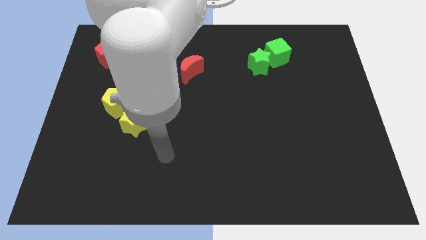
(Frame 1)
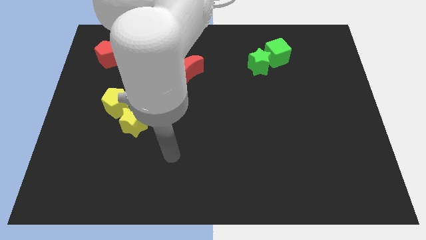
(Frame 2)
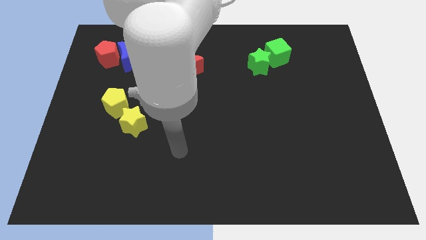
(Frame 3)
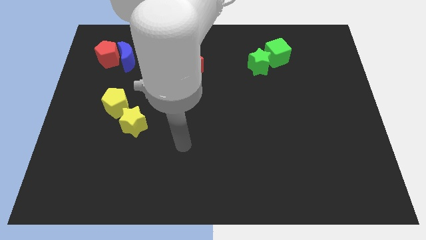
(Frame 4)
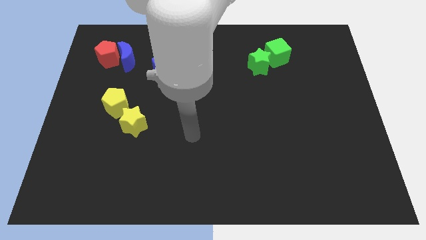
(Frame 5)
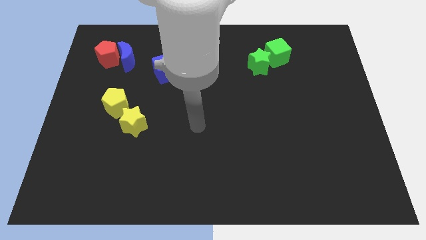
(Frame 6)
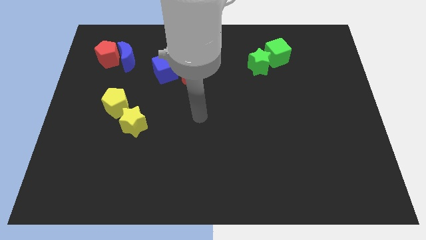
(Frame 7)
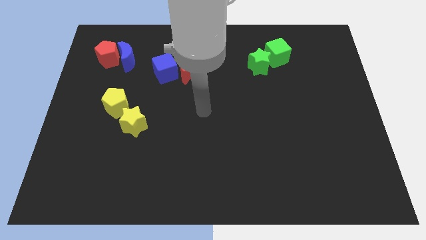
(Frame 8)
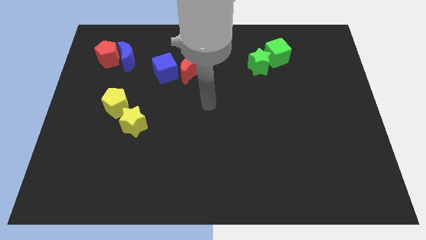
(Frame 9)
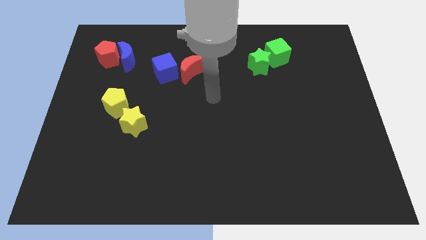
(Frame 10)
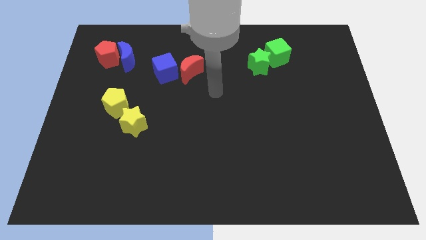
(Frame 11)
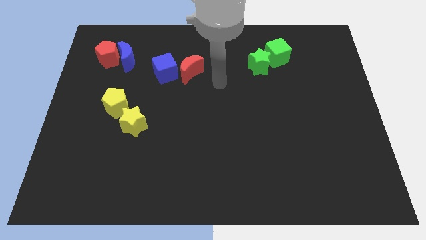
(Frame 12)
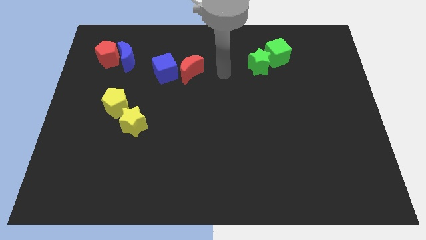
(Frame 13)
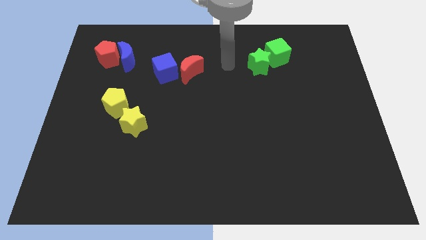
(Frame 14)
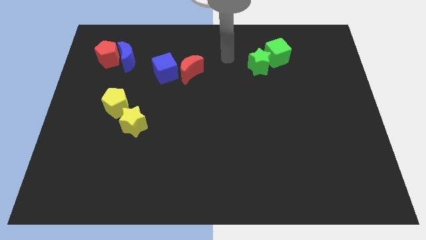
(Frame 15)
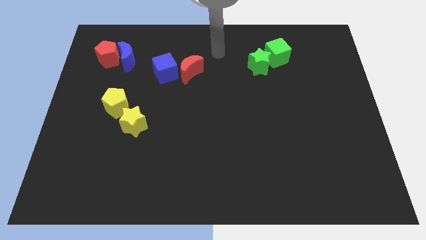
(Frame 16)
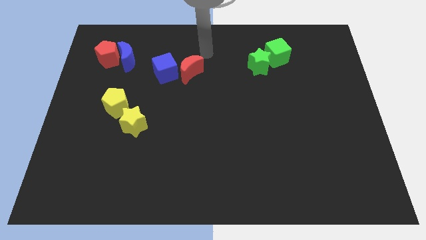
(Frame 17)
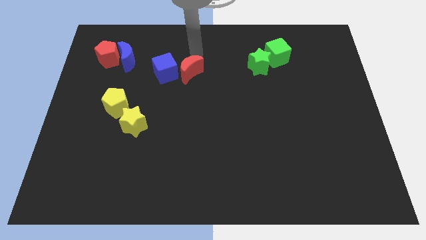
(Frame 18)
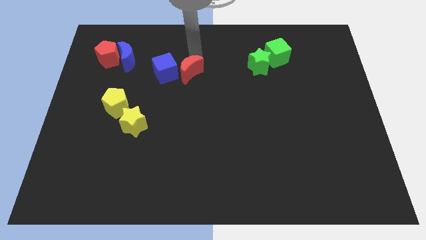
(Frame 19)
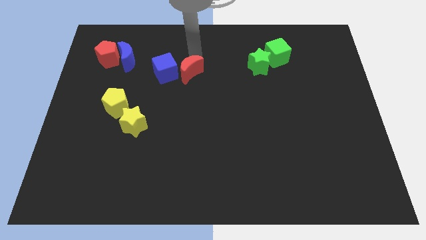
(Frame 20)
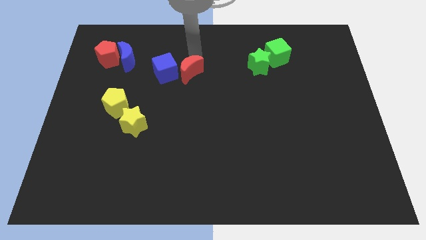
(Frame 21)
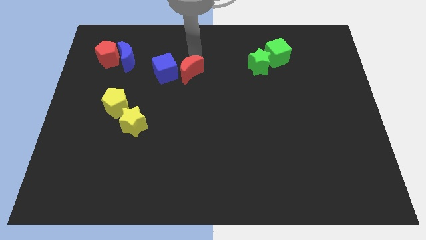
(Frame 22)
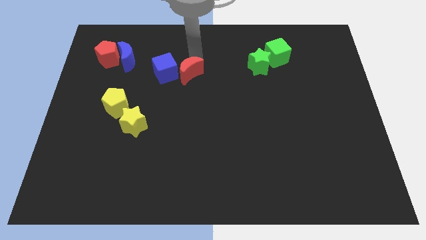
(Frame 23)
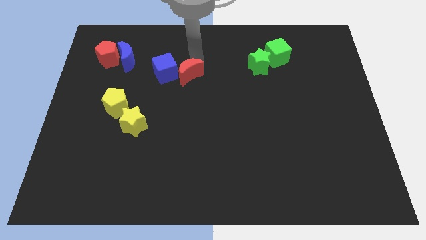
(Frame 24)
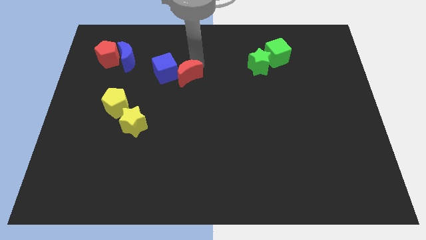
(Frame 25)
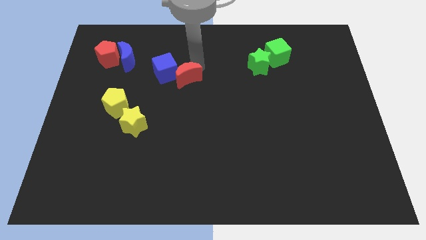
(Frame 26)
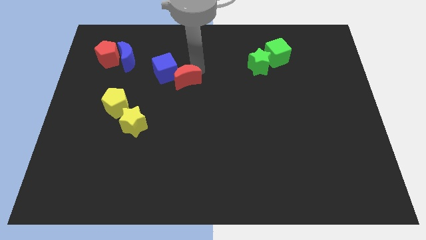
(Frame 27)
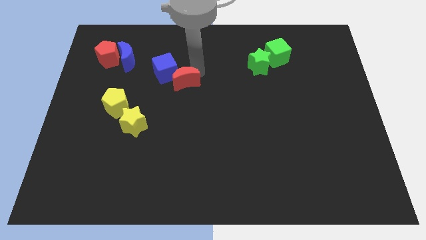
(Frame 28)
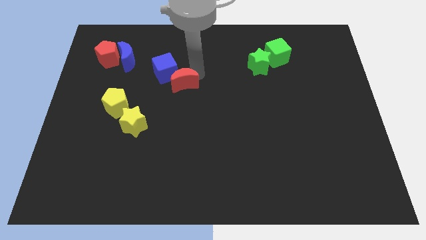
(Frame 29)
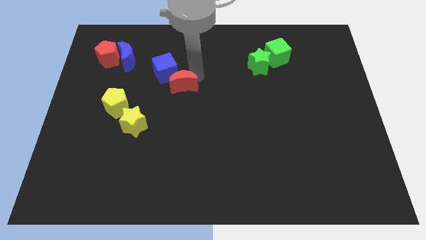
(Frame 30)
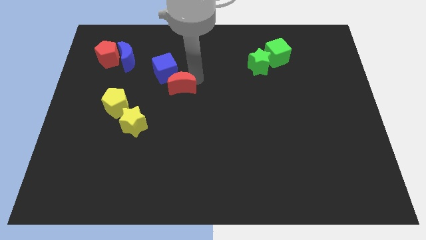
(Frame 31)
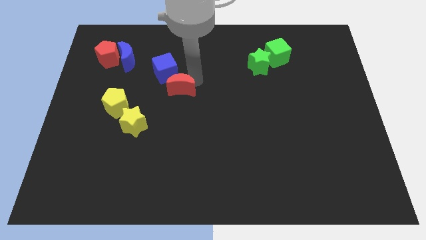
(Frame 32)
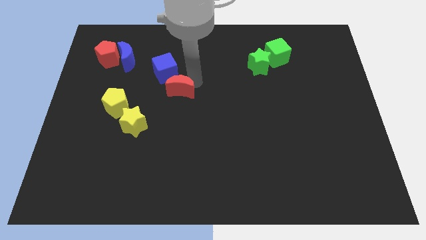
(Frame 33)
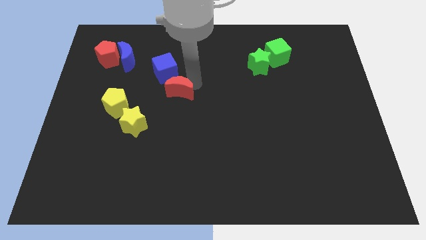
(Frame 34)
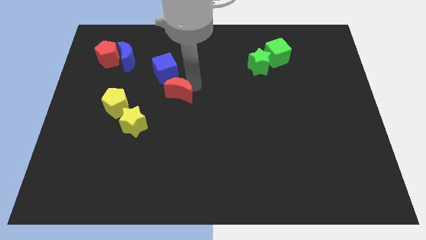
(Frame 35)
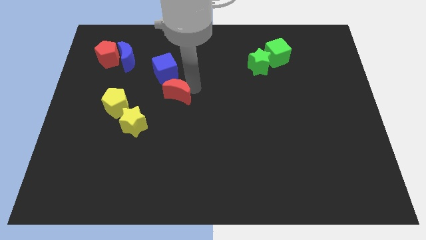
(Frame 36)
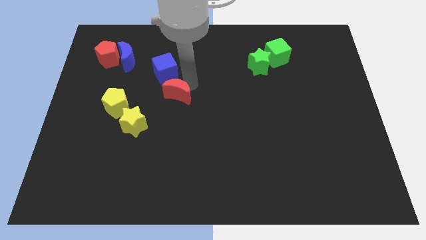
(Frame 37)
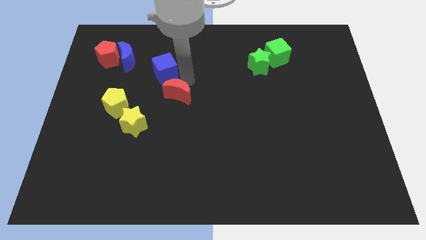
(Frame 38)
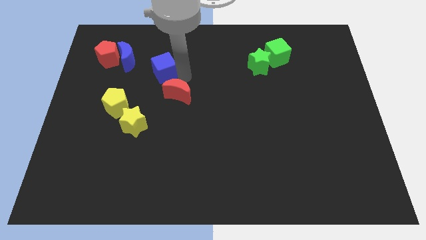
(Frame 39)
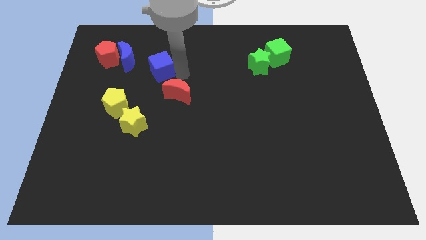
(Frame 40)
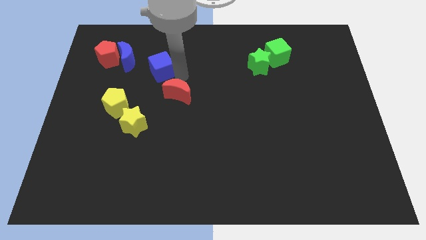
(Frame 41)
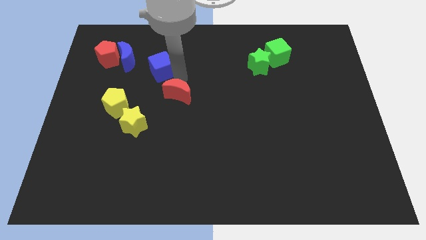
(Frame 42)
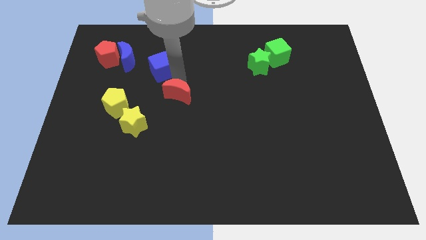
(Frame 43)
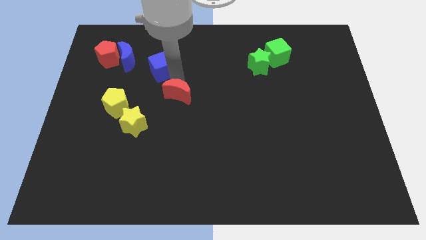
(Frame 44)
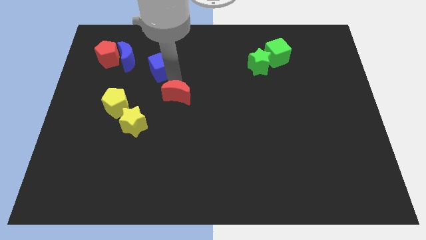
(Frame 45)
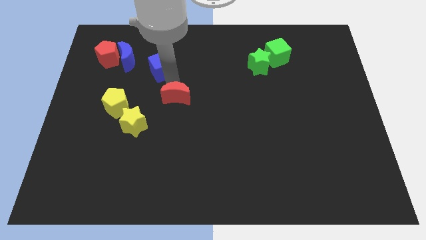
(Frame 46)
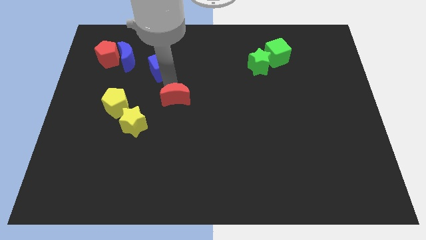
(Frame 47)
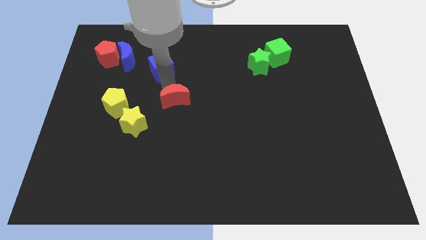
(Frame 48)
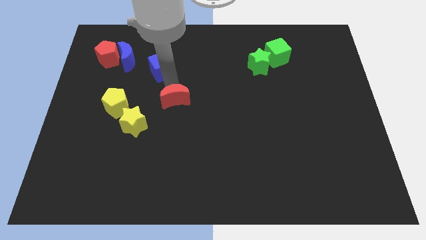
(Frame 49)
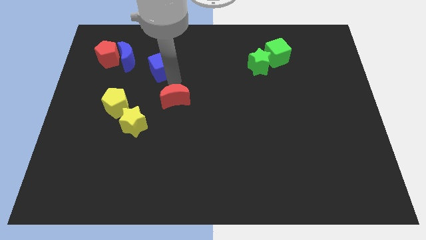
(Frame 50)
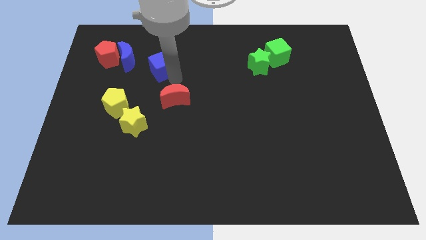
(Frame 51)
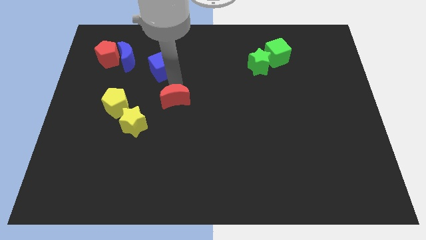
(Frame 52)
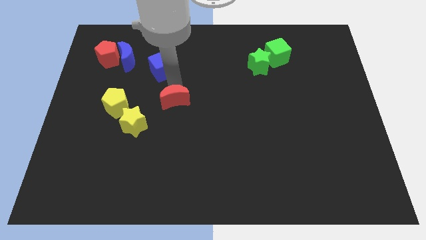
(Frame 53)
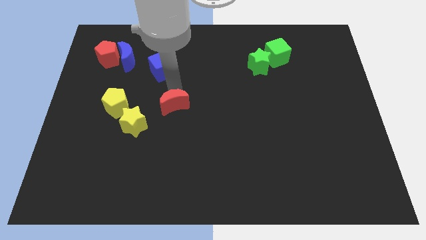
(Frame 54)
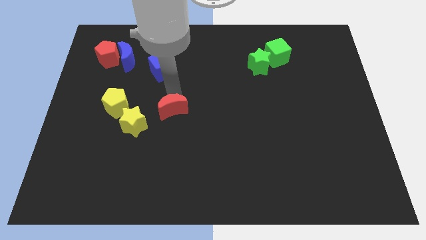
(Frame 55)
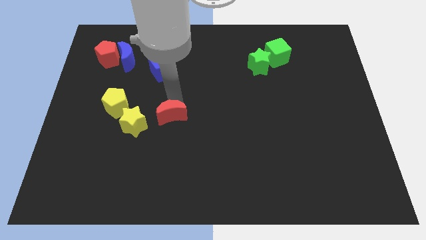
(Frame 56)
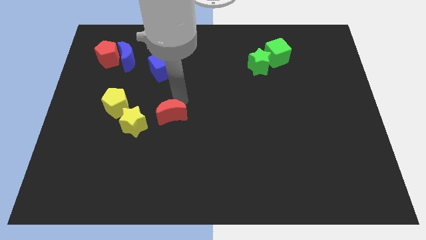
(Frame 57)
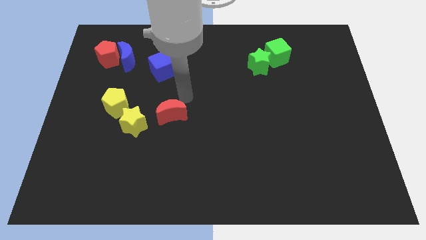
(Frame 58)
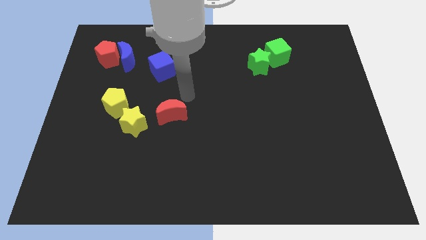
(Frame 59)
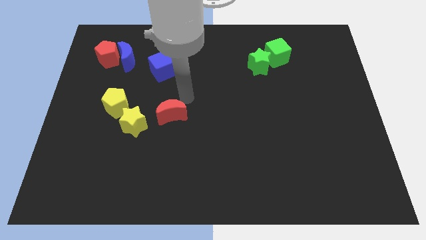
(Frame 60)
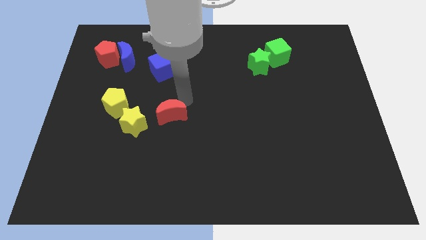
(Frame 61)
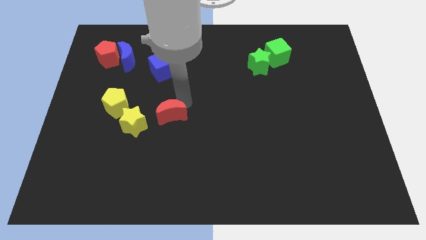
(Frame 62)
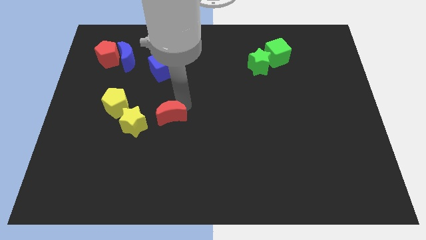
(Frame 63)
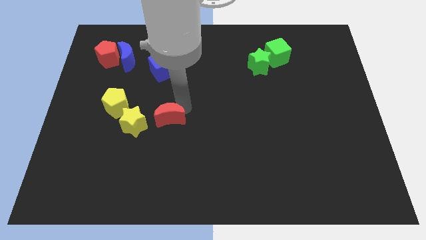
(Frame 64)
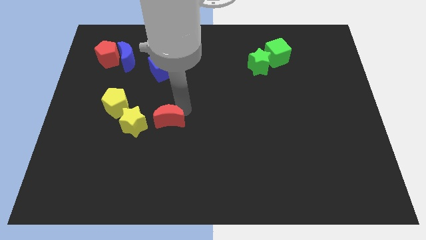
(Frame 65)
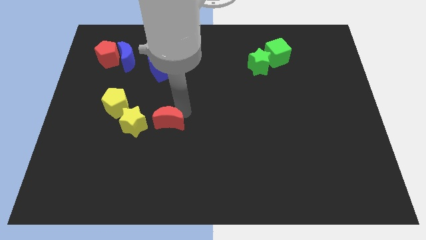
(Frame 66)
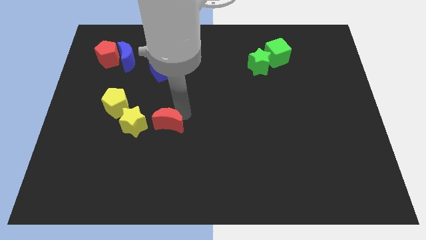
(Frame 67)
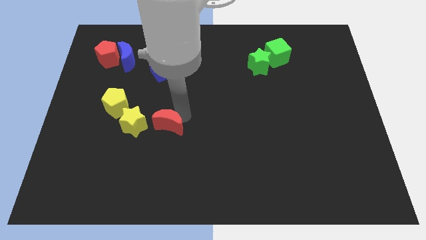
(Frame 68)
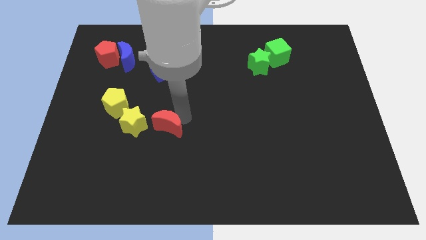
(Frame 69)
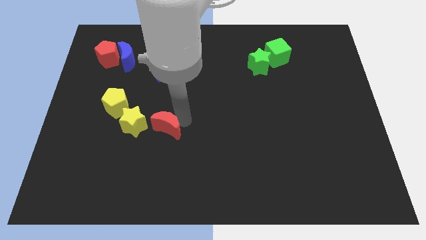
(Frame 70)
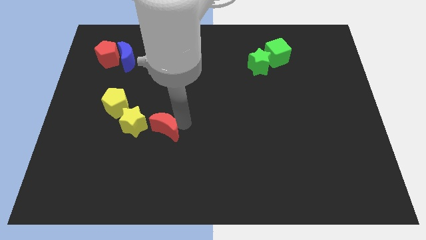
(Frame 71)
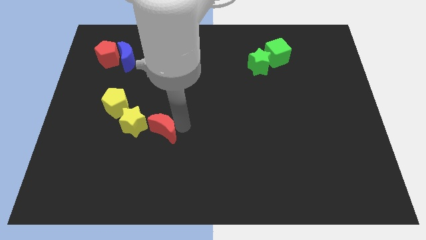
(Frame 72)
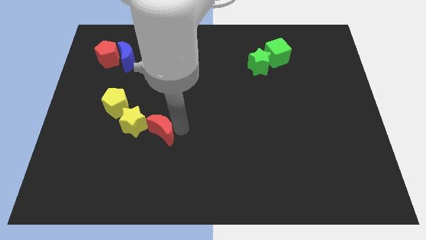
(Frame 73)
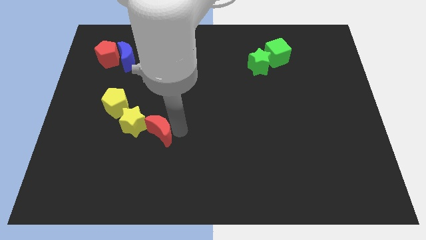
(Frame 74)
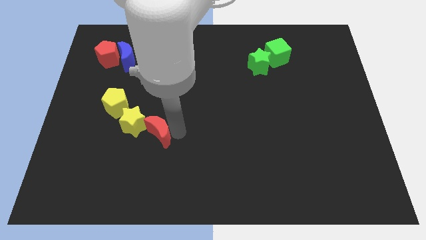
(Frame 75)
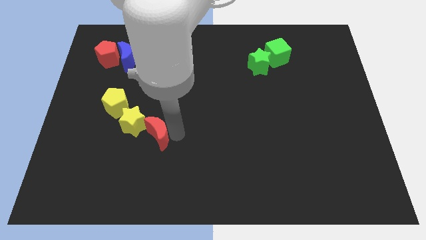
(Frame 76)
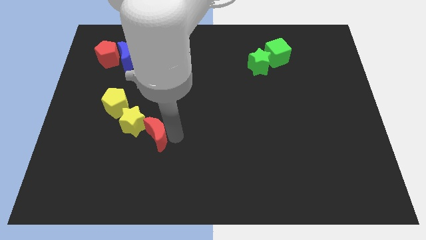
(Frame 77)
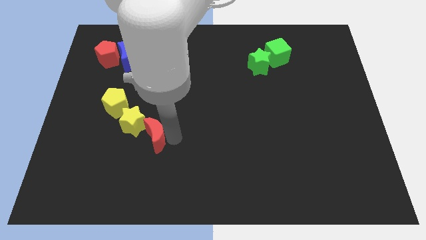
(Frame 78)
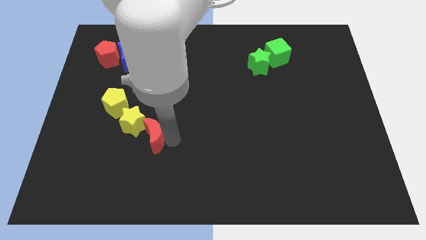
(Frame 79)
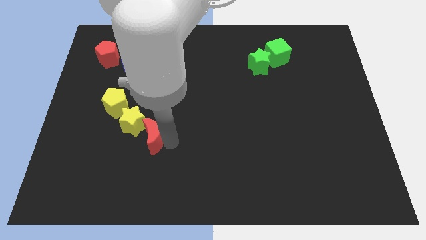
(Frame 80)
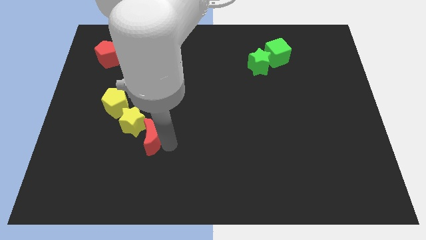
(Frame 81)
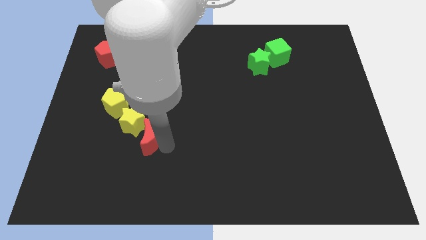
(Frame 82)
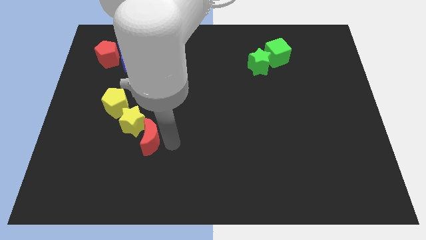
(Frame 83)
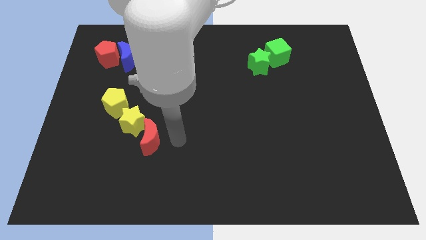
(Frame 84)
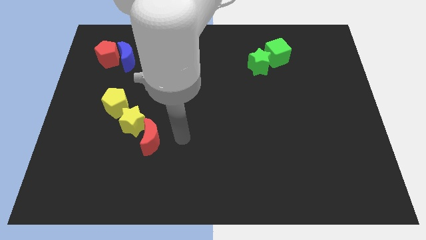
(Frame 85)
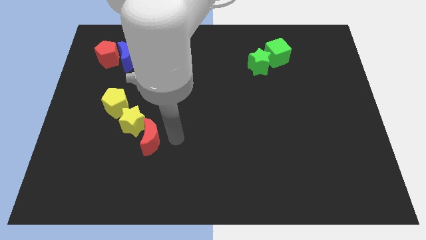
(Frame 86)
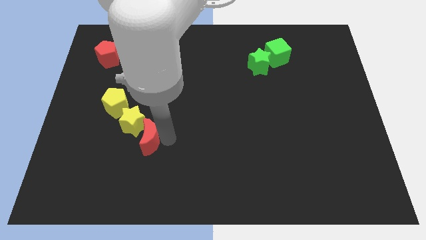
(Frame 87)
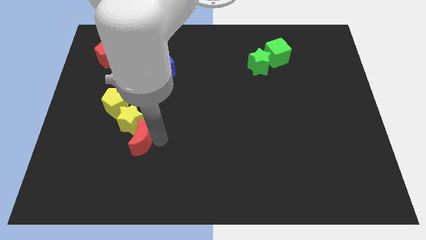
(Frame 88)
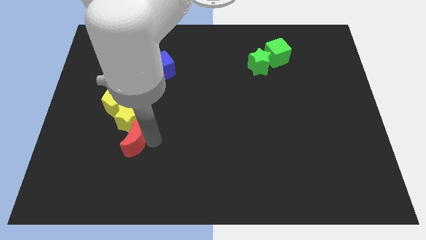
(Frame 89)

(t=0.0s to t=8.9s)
move the red moon down and left diagonally
